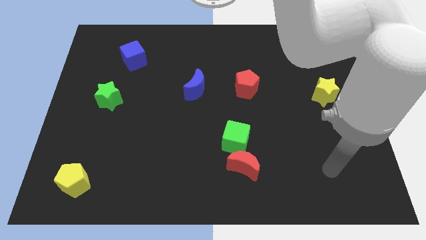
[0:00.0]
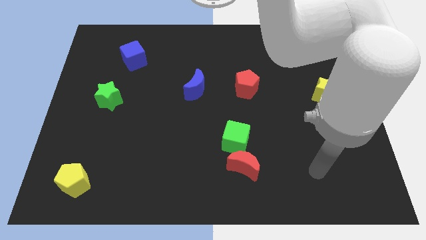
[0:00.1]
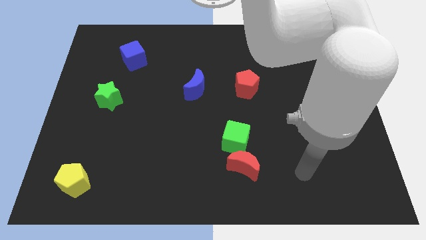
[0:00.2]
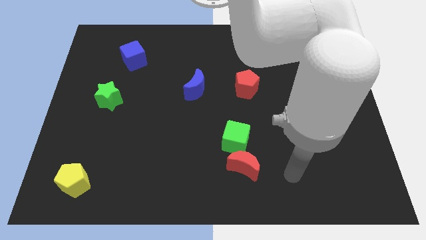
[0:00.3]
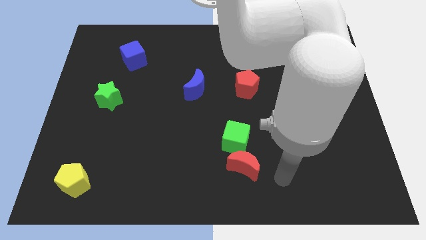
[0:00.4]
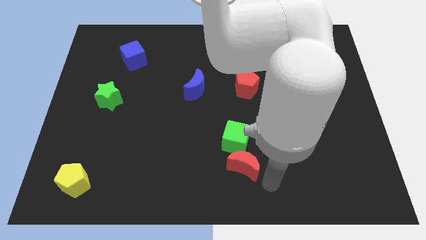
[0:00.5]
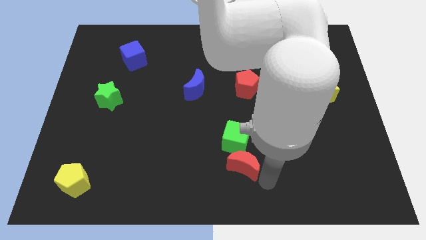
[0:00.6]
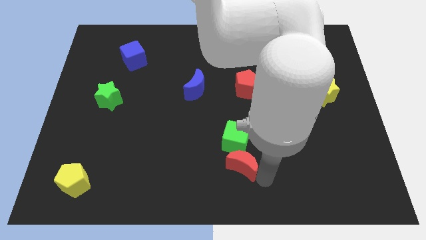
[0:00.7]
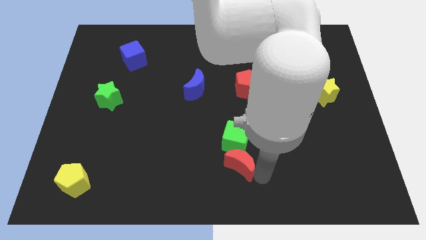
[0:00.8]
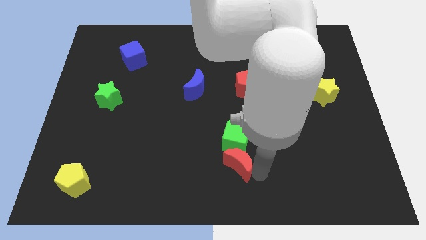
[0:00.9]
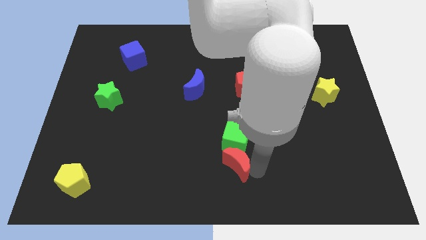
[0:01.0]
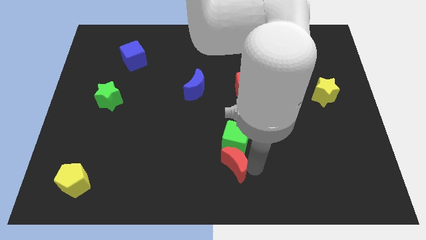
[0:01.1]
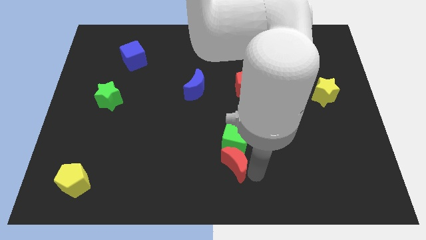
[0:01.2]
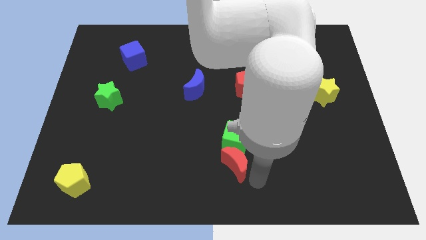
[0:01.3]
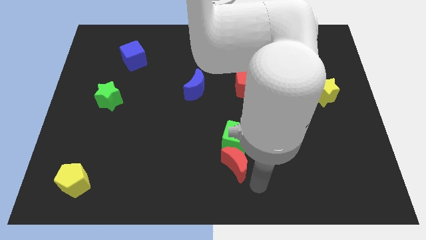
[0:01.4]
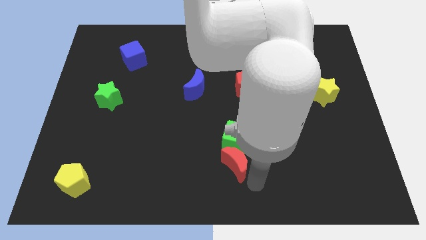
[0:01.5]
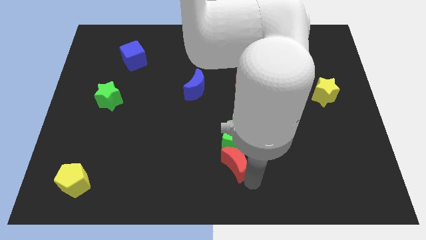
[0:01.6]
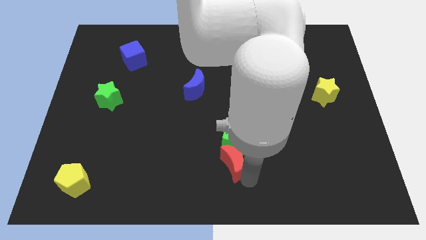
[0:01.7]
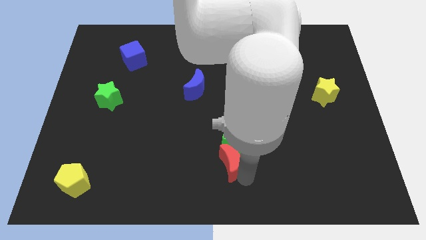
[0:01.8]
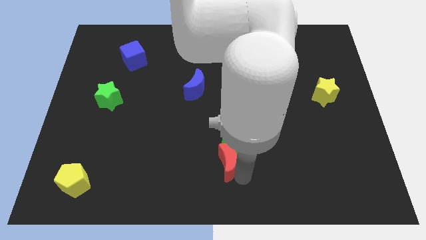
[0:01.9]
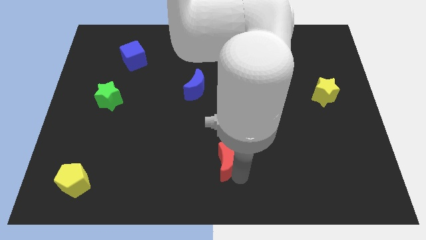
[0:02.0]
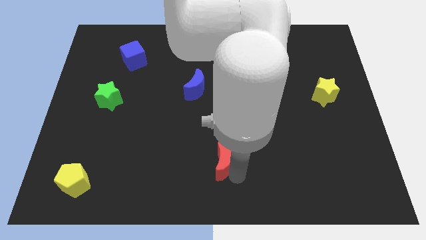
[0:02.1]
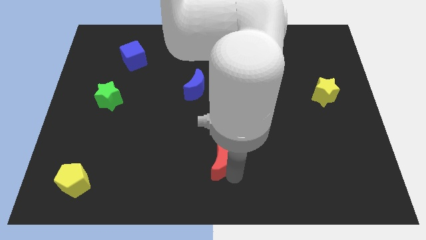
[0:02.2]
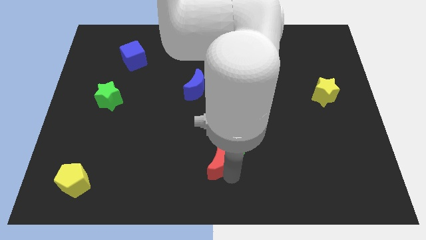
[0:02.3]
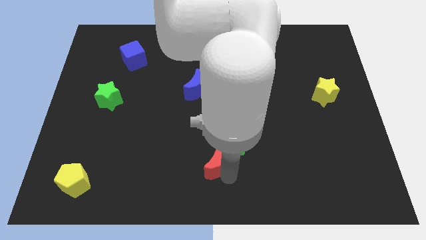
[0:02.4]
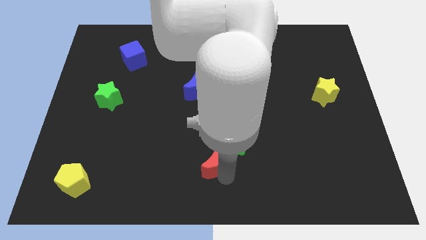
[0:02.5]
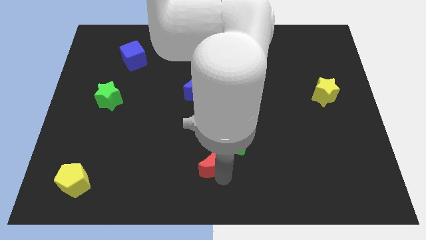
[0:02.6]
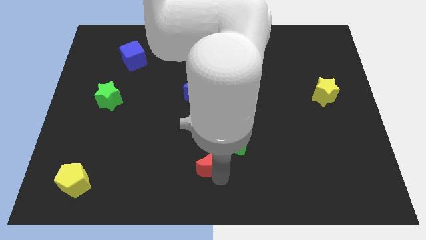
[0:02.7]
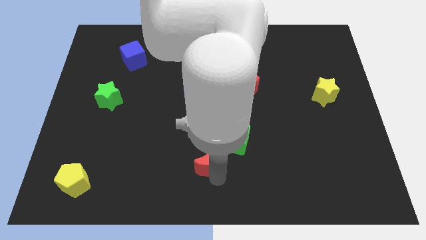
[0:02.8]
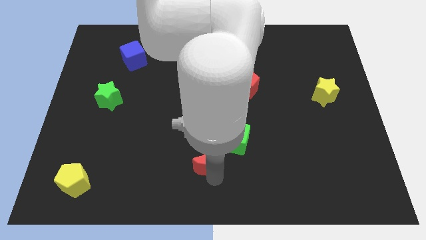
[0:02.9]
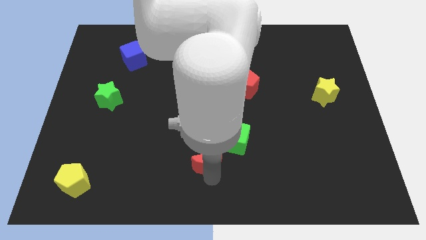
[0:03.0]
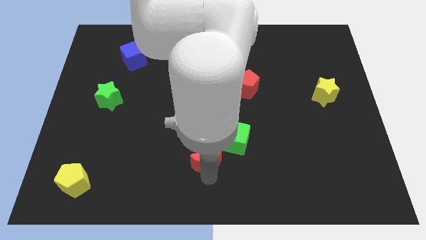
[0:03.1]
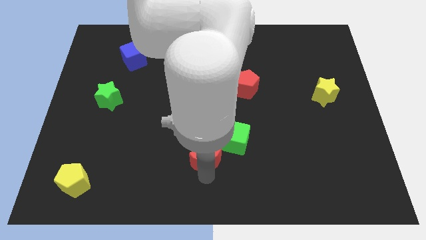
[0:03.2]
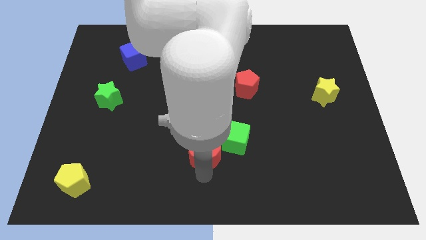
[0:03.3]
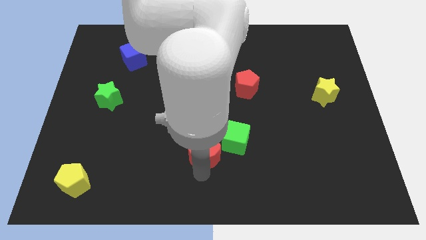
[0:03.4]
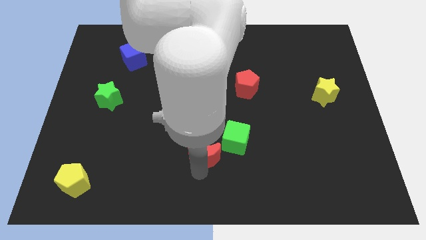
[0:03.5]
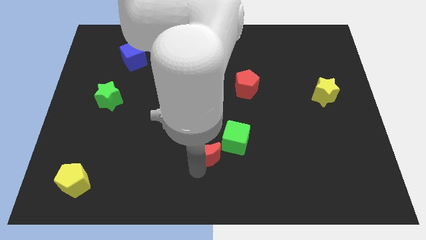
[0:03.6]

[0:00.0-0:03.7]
move the red moon upwards and to the left diagonally somewhat

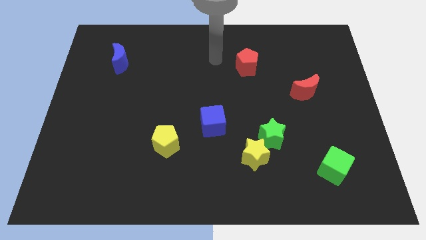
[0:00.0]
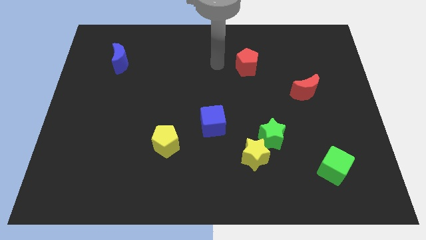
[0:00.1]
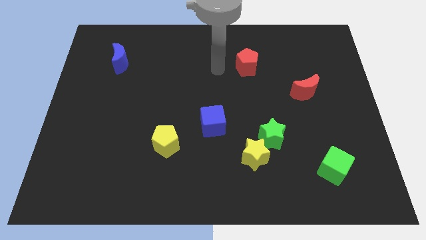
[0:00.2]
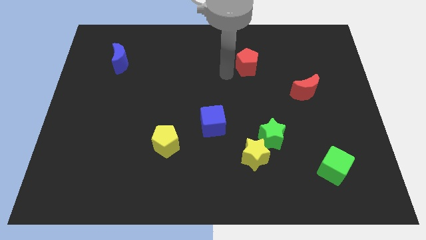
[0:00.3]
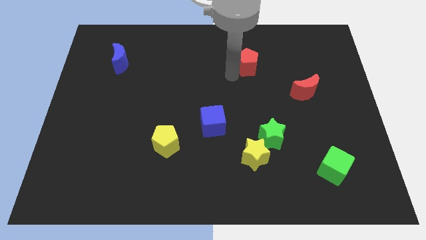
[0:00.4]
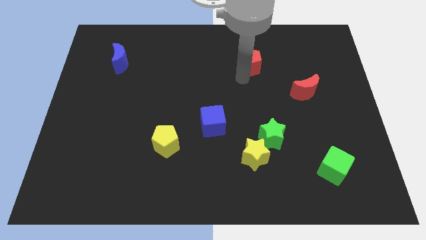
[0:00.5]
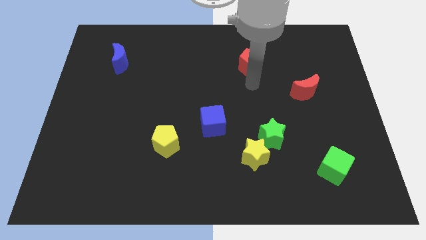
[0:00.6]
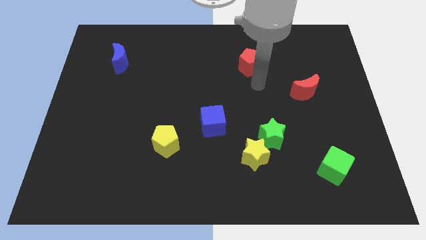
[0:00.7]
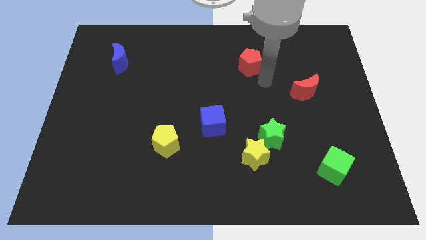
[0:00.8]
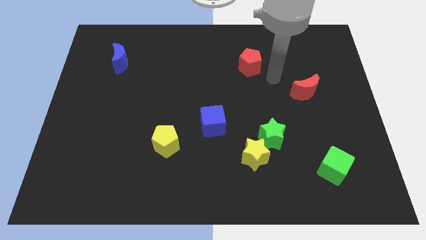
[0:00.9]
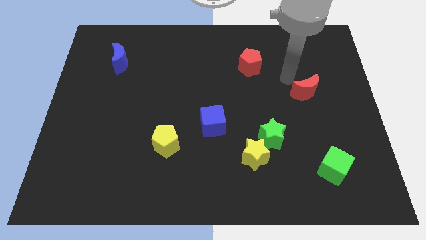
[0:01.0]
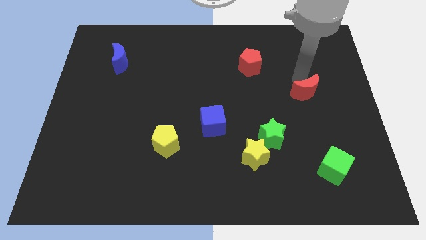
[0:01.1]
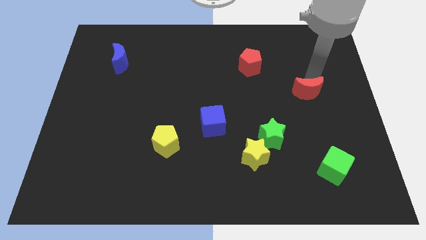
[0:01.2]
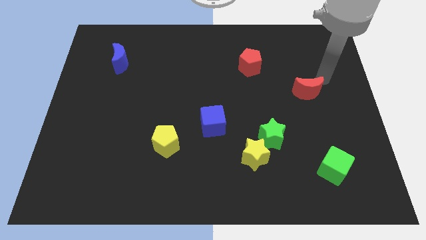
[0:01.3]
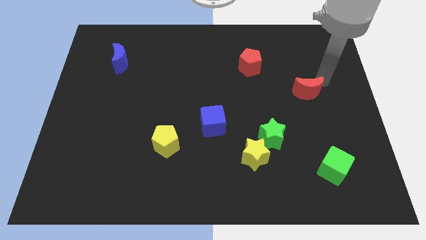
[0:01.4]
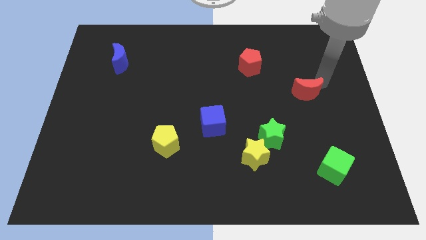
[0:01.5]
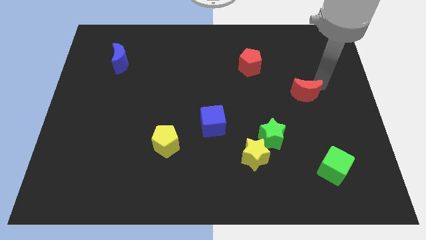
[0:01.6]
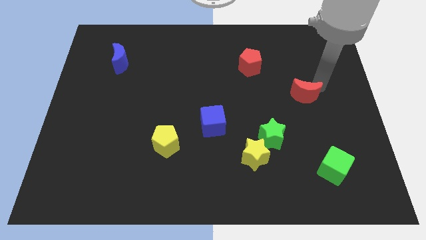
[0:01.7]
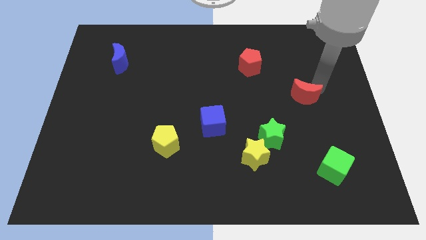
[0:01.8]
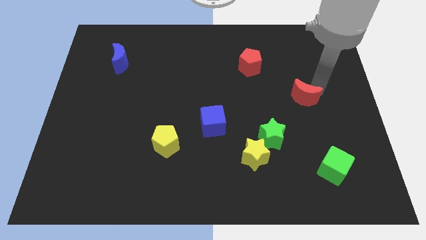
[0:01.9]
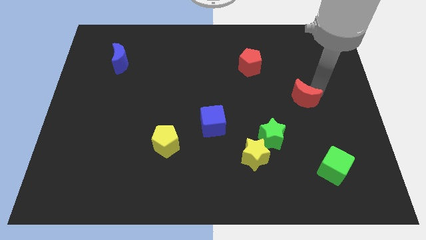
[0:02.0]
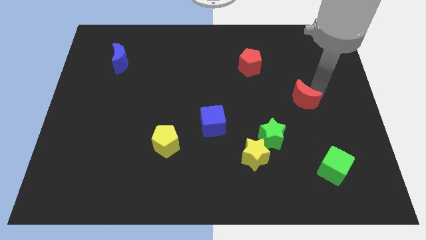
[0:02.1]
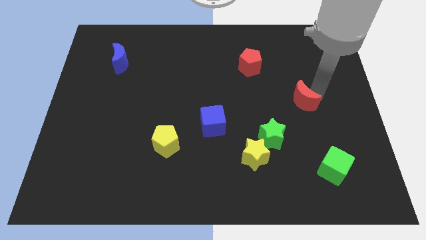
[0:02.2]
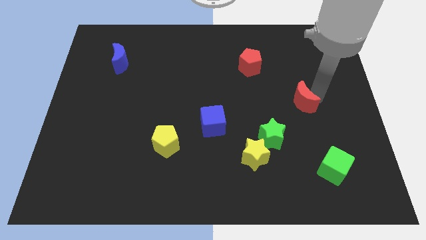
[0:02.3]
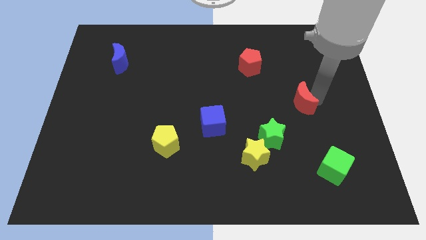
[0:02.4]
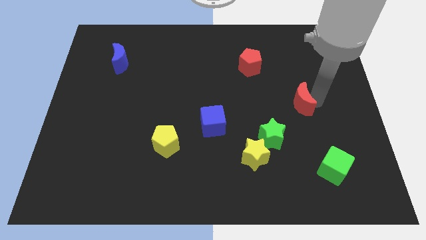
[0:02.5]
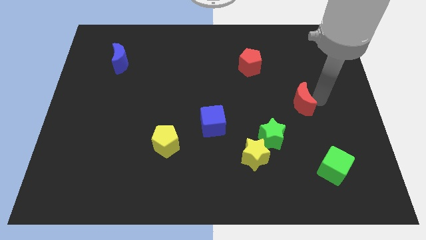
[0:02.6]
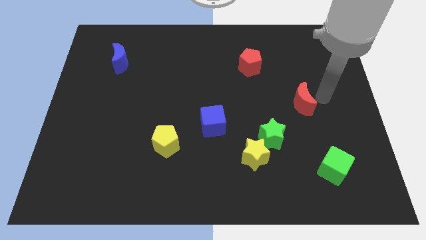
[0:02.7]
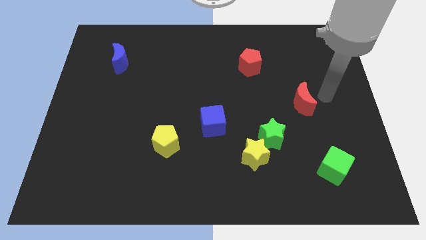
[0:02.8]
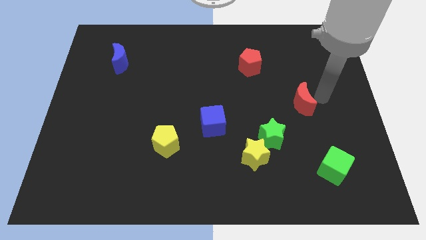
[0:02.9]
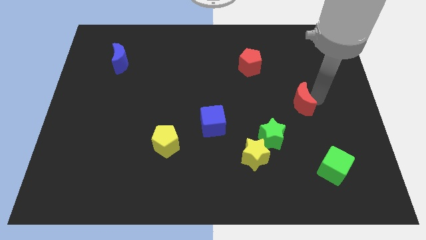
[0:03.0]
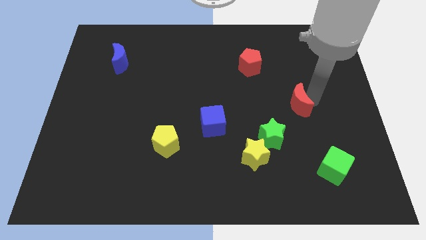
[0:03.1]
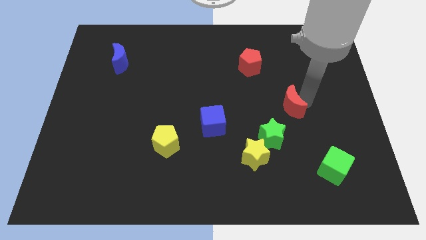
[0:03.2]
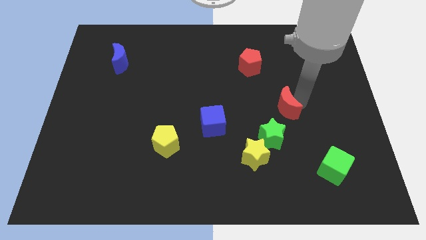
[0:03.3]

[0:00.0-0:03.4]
move the red moon a little down and left

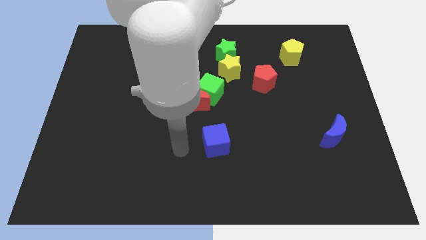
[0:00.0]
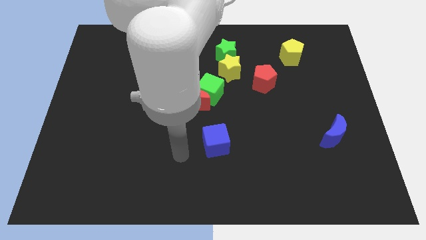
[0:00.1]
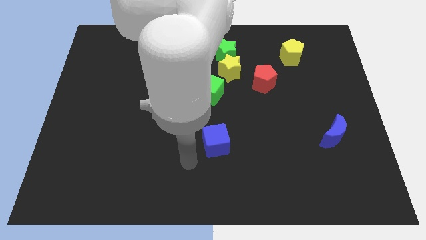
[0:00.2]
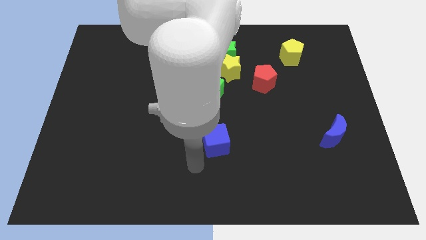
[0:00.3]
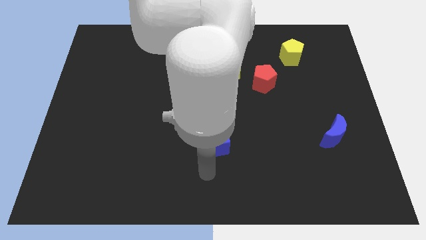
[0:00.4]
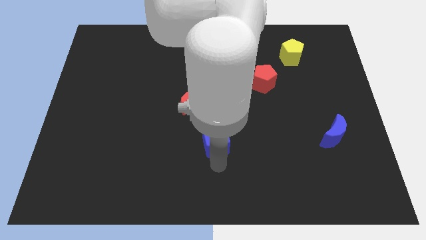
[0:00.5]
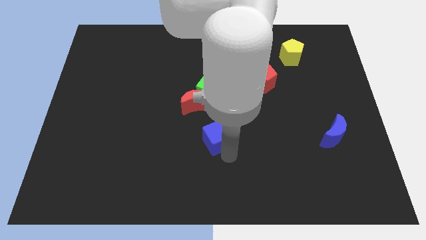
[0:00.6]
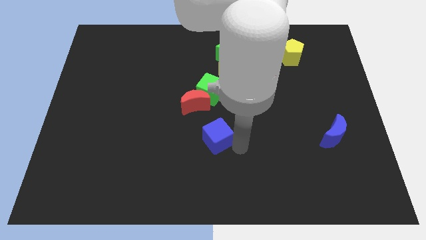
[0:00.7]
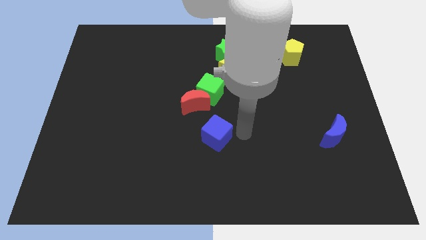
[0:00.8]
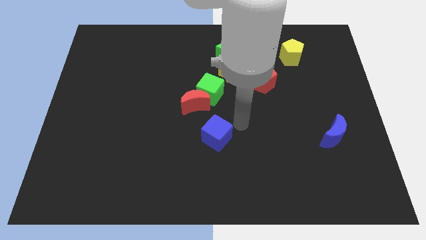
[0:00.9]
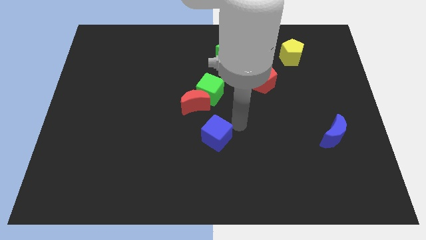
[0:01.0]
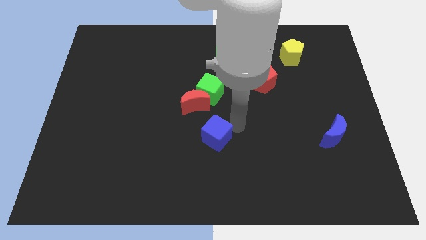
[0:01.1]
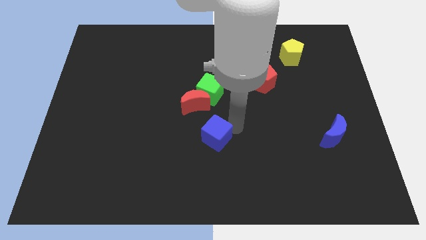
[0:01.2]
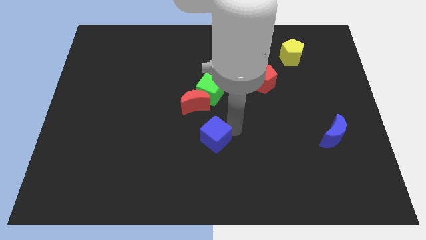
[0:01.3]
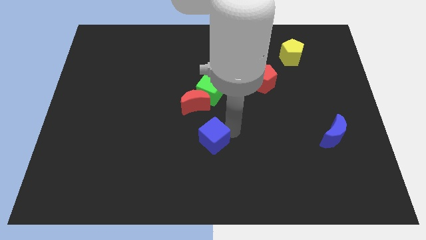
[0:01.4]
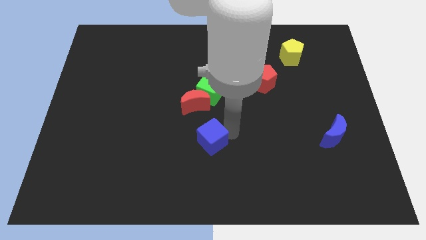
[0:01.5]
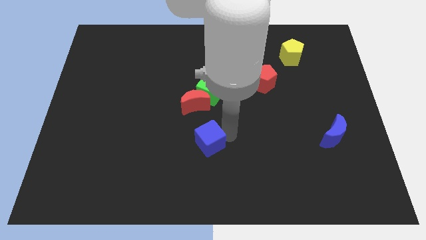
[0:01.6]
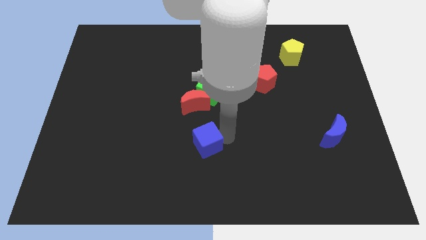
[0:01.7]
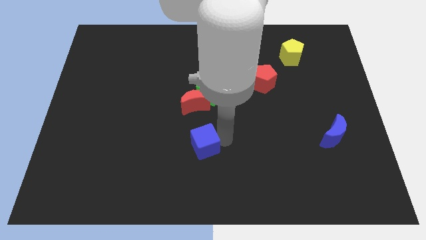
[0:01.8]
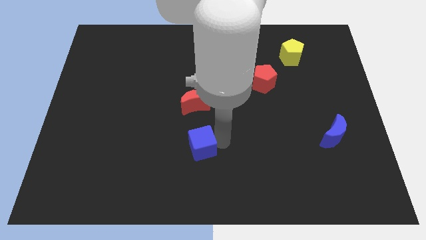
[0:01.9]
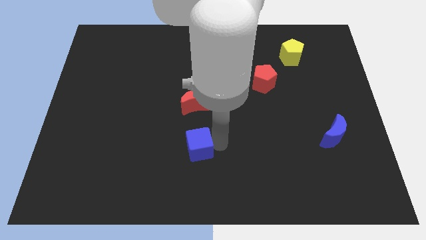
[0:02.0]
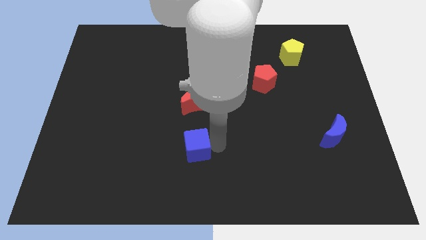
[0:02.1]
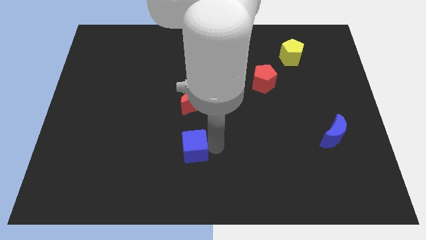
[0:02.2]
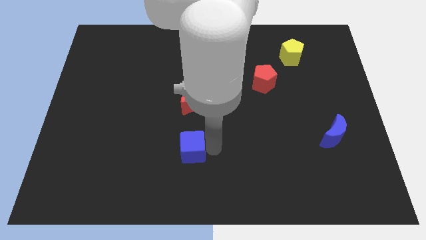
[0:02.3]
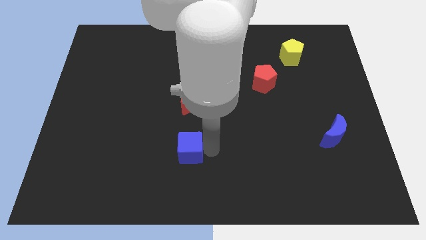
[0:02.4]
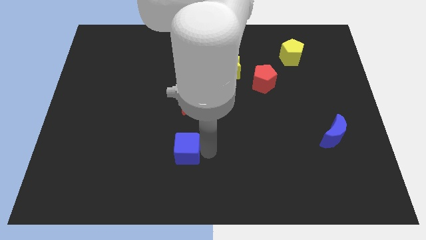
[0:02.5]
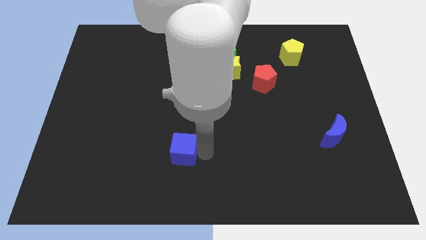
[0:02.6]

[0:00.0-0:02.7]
slightly push the blue cube to the left
